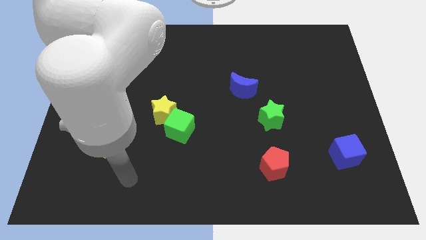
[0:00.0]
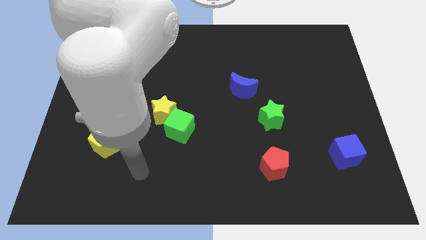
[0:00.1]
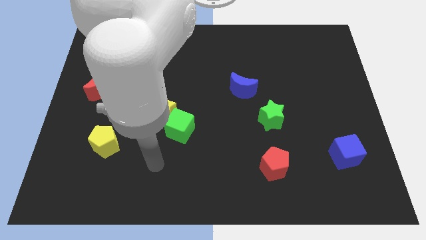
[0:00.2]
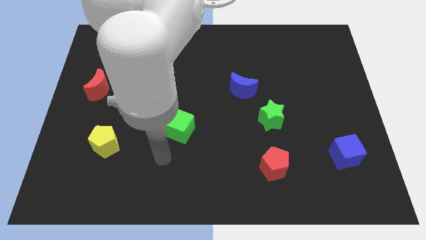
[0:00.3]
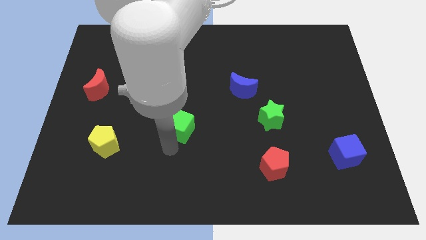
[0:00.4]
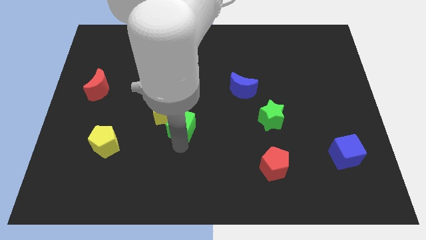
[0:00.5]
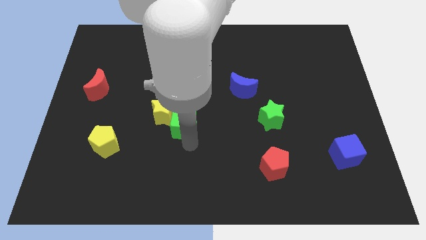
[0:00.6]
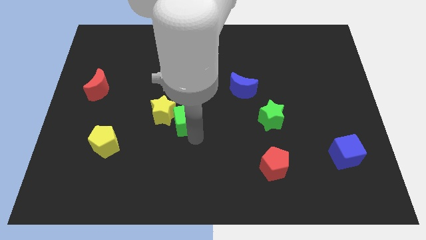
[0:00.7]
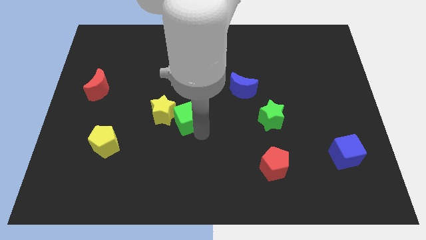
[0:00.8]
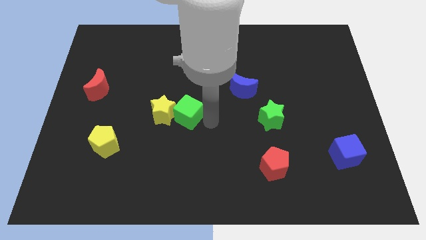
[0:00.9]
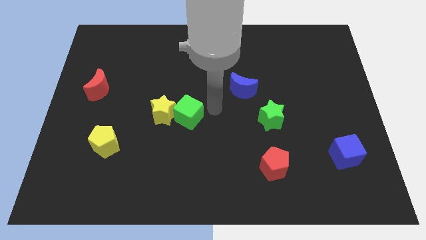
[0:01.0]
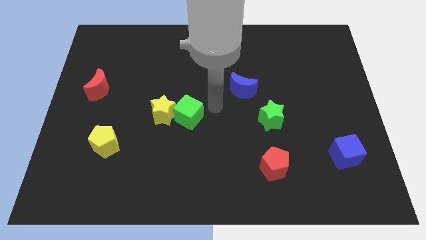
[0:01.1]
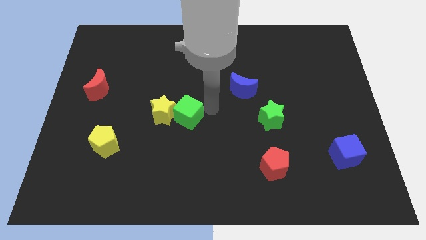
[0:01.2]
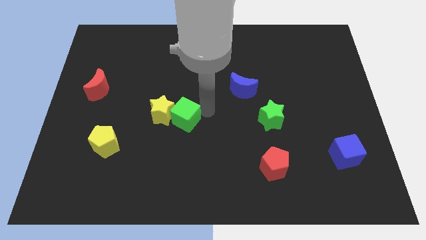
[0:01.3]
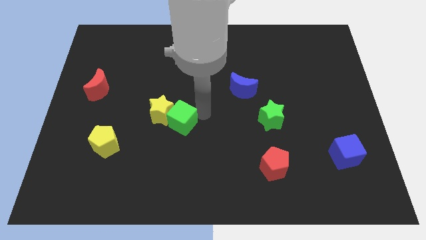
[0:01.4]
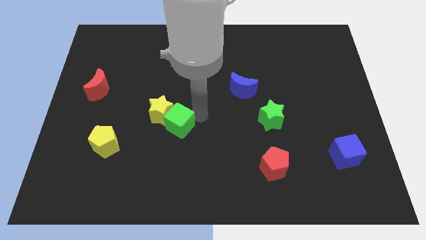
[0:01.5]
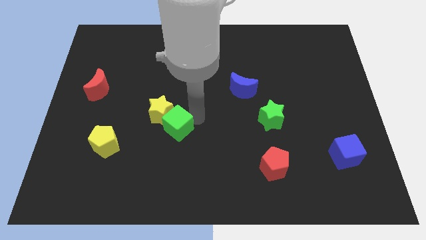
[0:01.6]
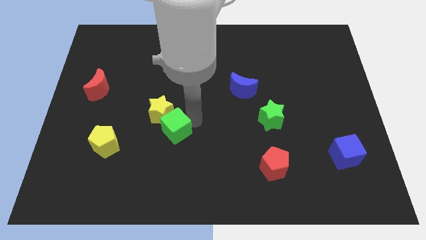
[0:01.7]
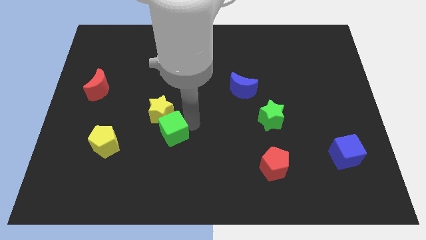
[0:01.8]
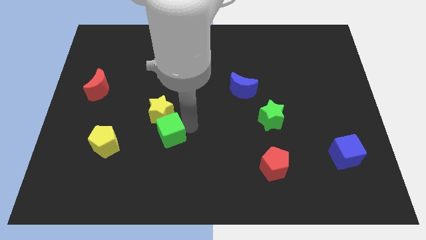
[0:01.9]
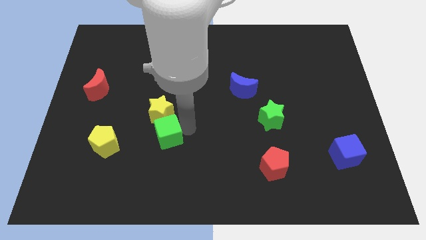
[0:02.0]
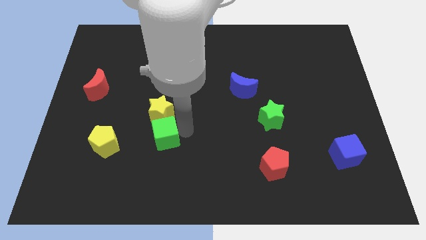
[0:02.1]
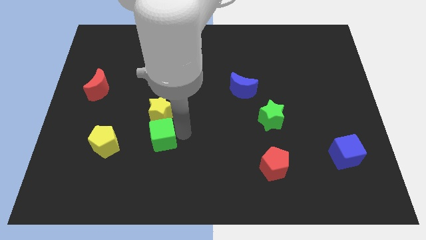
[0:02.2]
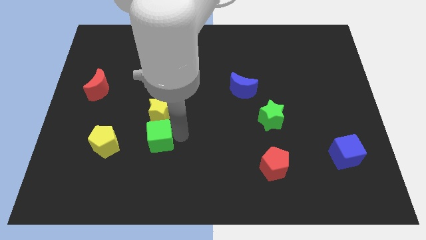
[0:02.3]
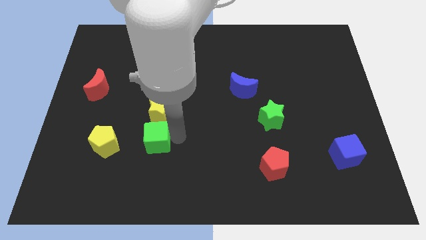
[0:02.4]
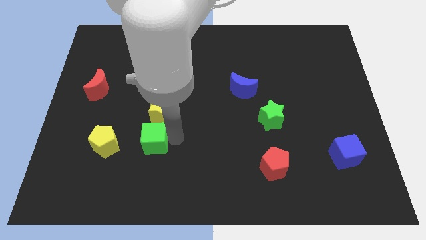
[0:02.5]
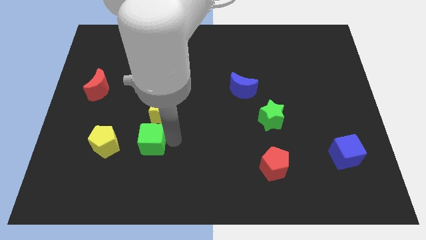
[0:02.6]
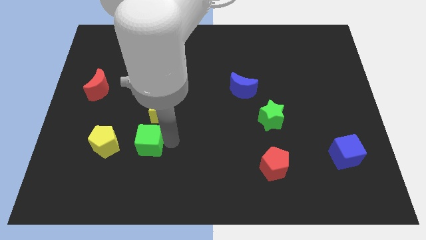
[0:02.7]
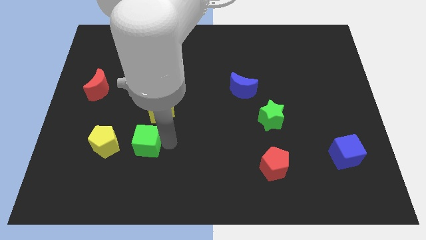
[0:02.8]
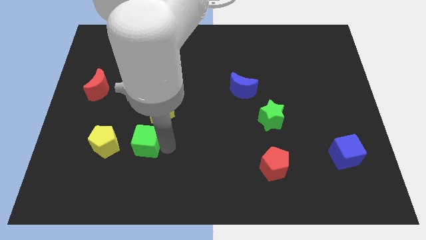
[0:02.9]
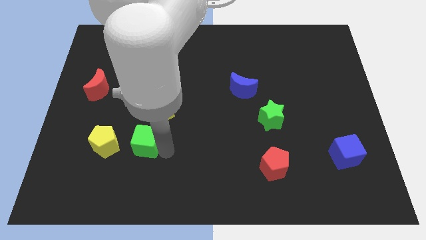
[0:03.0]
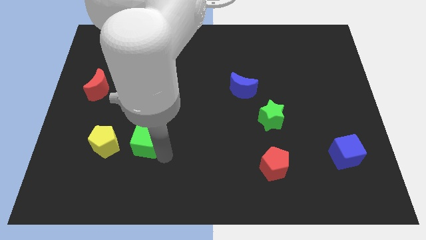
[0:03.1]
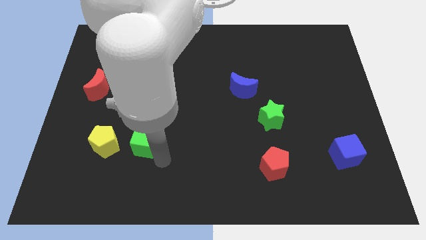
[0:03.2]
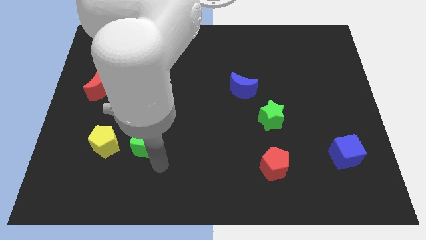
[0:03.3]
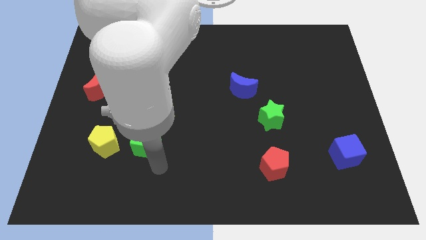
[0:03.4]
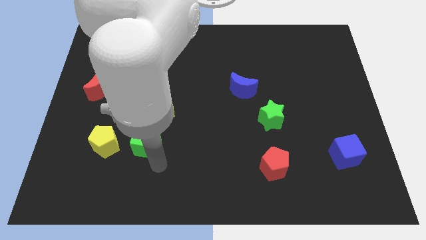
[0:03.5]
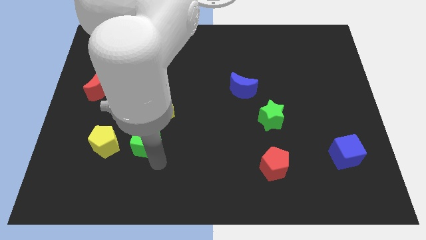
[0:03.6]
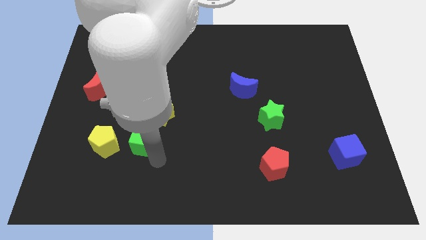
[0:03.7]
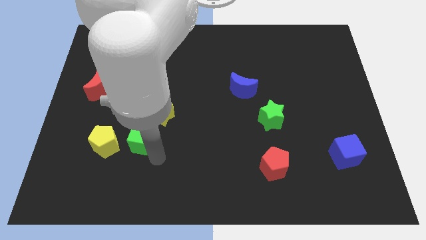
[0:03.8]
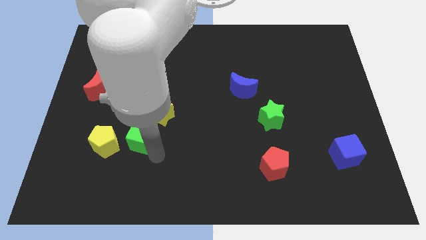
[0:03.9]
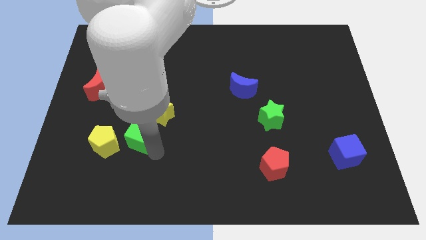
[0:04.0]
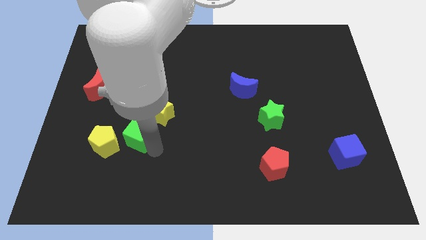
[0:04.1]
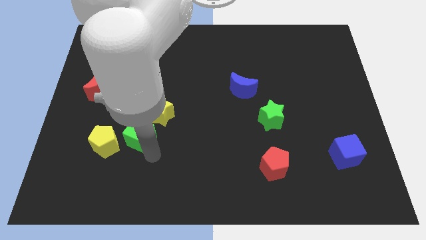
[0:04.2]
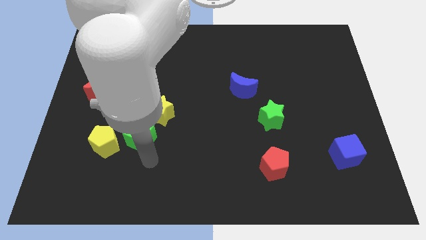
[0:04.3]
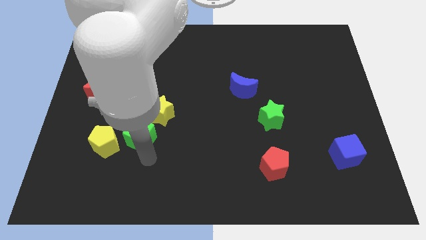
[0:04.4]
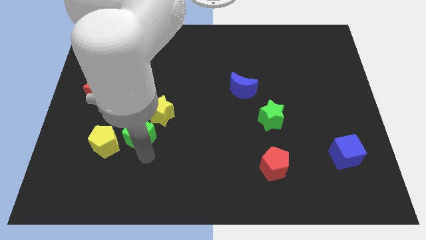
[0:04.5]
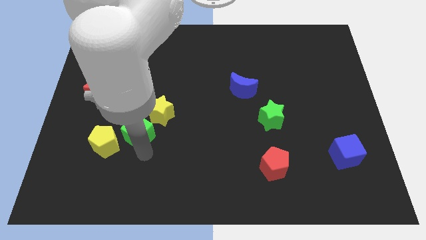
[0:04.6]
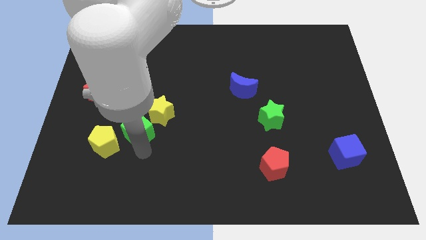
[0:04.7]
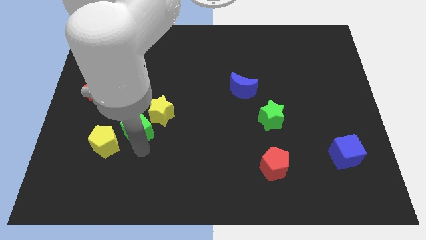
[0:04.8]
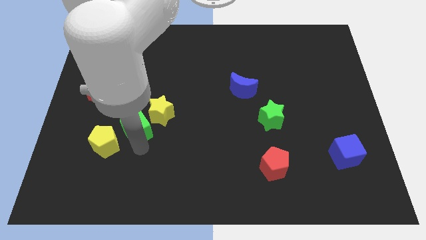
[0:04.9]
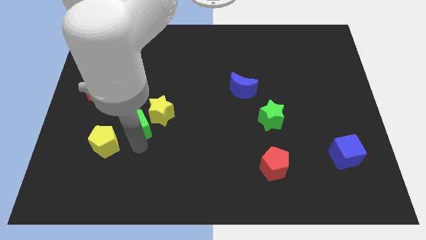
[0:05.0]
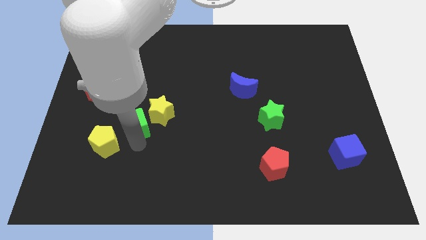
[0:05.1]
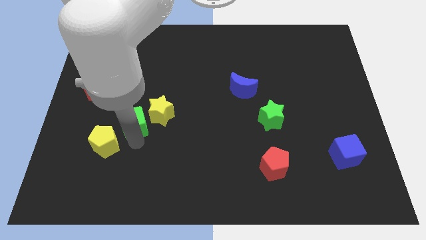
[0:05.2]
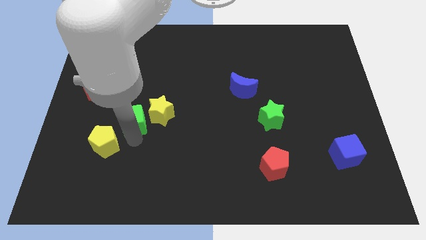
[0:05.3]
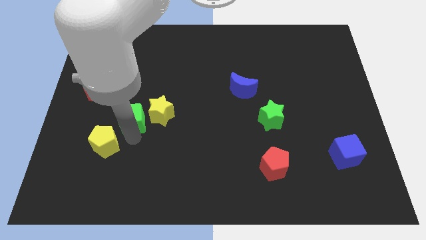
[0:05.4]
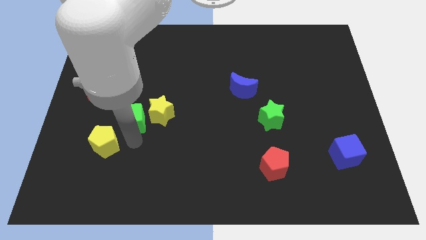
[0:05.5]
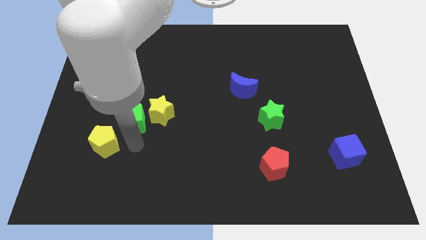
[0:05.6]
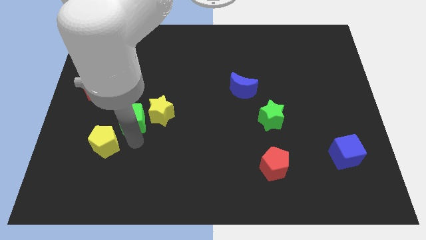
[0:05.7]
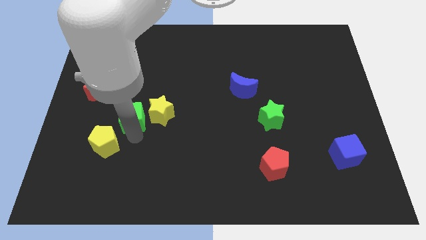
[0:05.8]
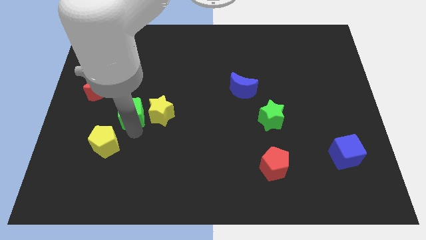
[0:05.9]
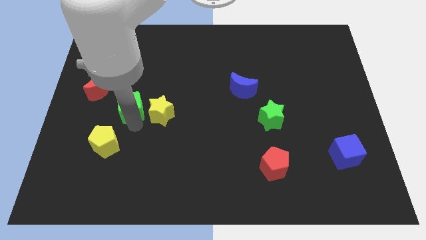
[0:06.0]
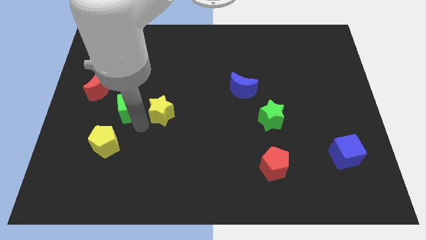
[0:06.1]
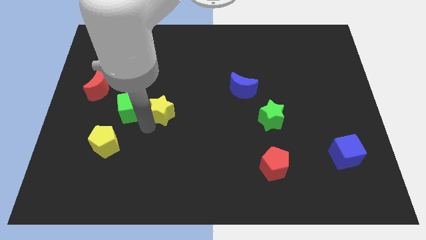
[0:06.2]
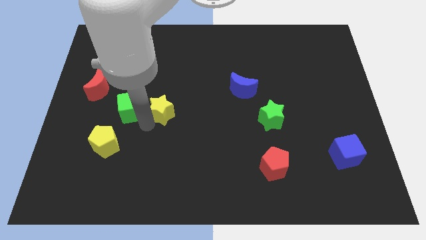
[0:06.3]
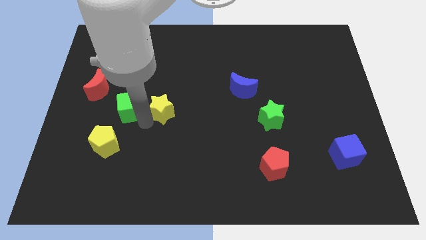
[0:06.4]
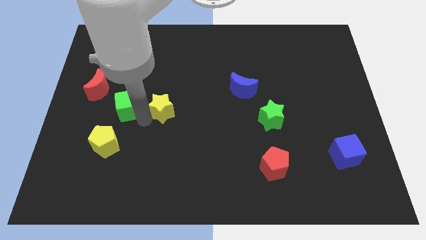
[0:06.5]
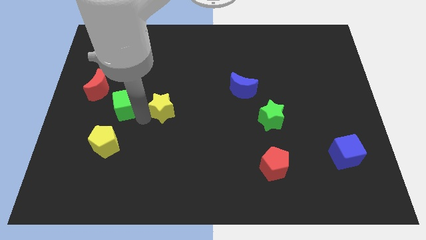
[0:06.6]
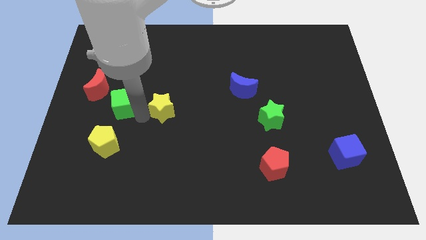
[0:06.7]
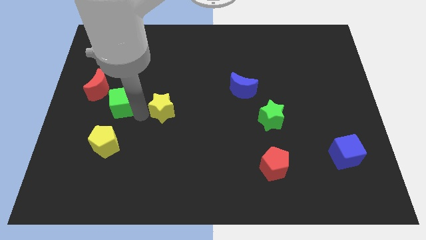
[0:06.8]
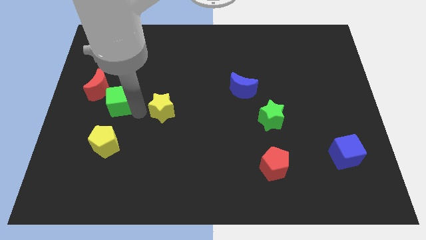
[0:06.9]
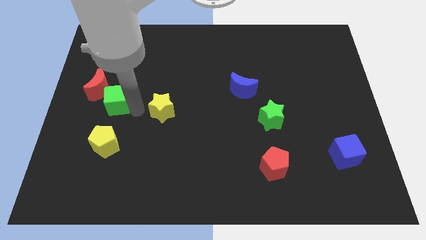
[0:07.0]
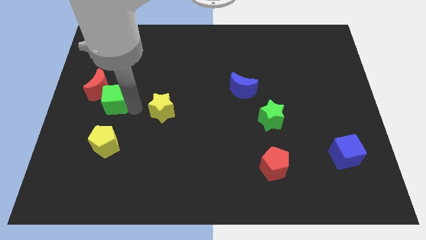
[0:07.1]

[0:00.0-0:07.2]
push the green cube to the red moon

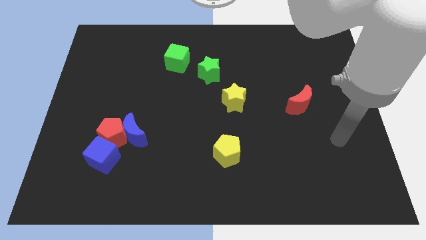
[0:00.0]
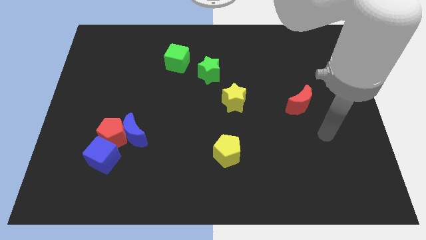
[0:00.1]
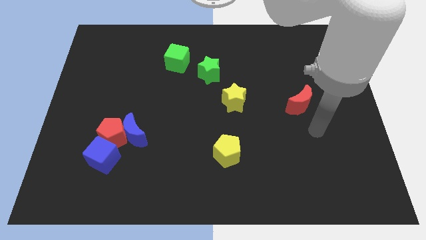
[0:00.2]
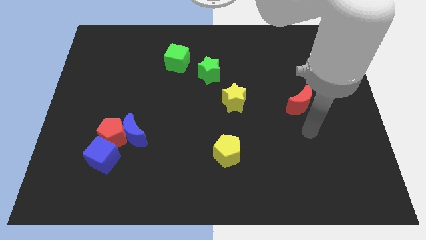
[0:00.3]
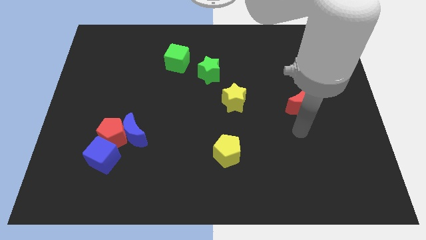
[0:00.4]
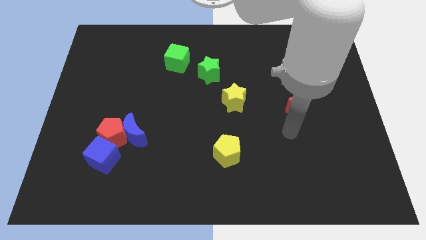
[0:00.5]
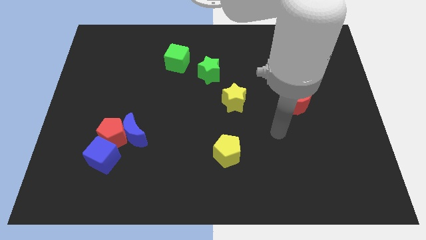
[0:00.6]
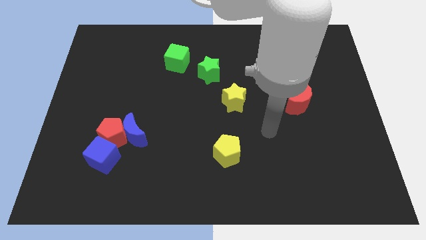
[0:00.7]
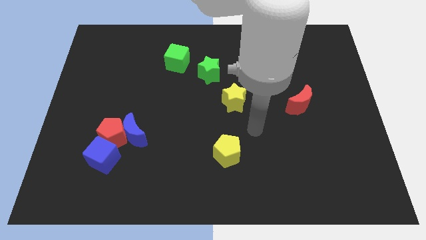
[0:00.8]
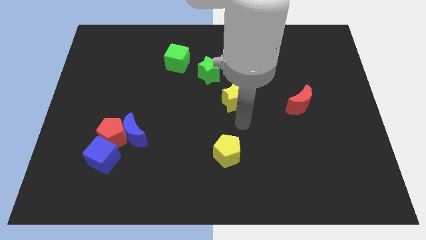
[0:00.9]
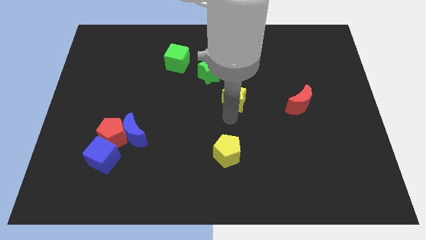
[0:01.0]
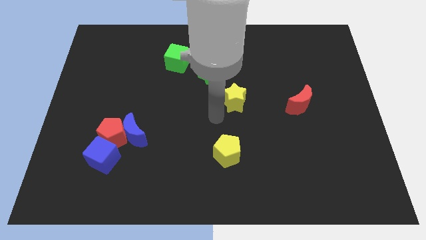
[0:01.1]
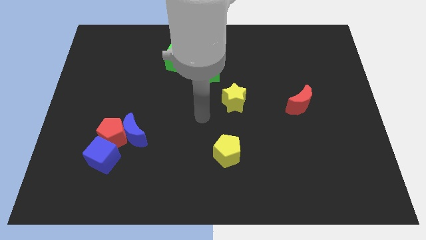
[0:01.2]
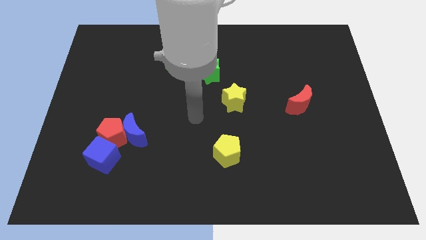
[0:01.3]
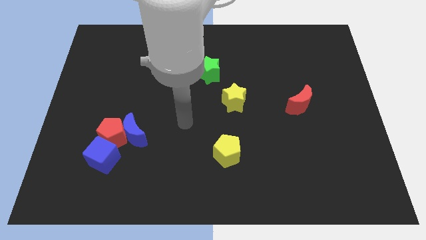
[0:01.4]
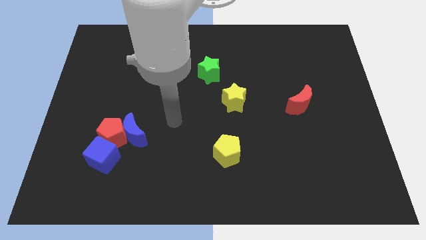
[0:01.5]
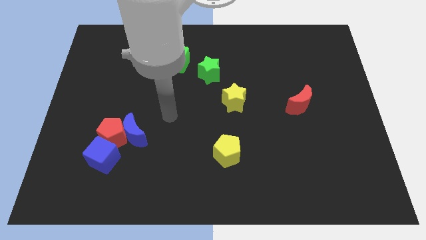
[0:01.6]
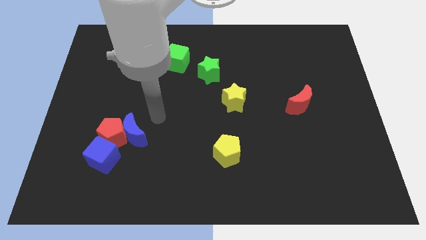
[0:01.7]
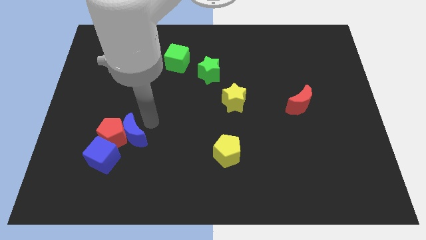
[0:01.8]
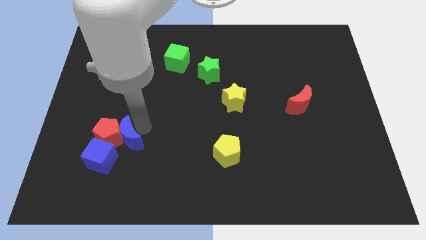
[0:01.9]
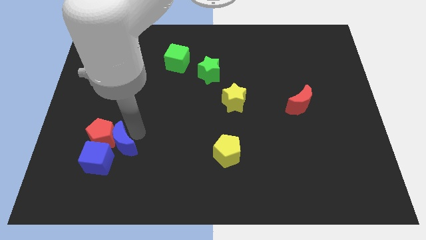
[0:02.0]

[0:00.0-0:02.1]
slide the blue moon next to the blue cube
